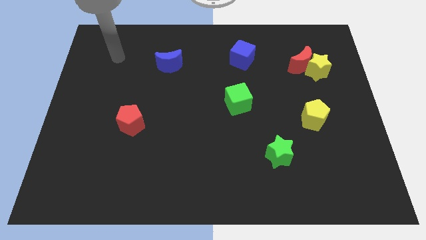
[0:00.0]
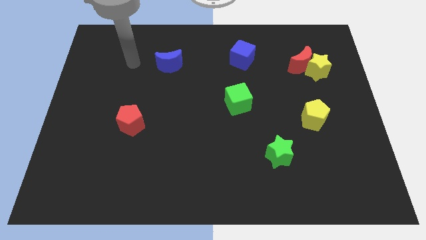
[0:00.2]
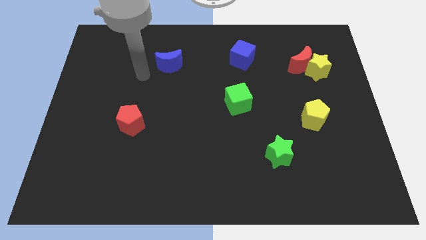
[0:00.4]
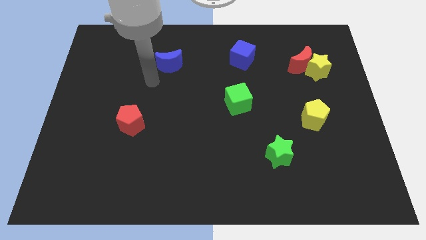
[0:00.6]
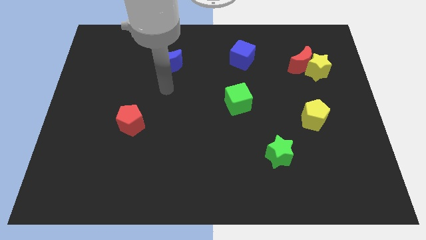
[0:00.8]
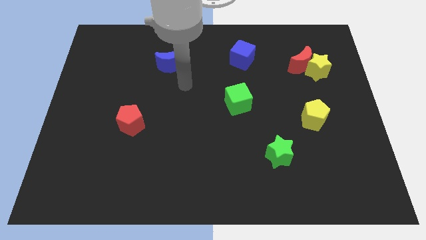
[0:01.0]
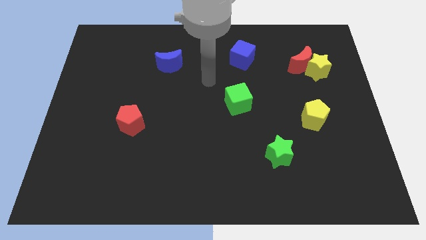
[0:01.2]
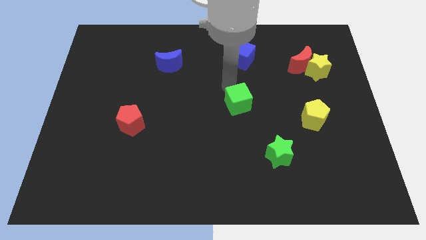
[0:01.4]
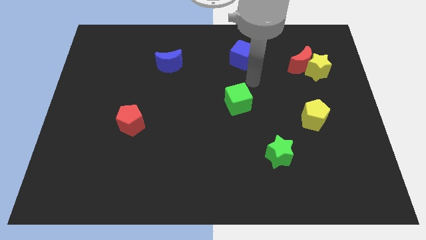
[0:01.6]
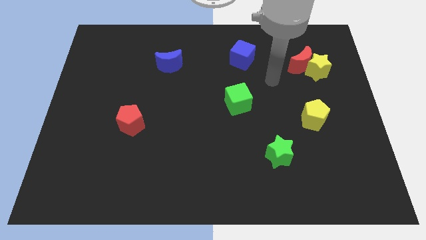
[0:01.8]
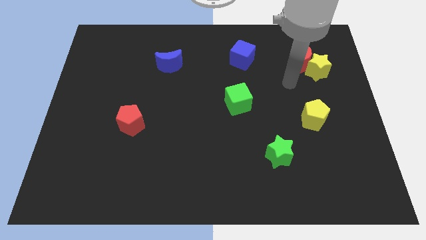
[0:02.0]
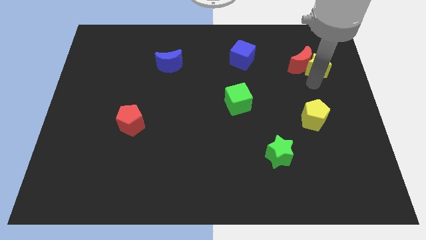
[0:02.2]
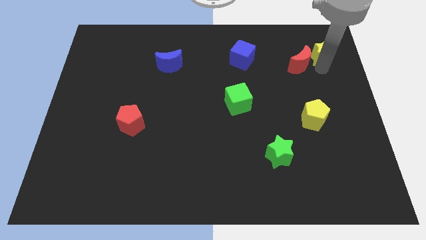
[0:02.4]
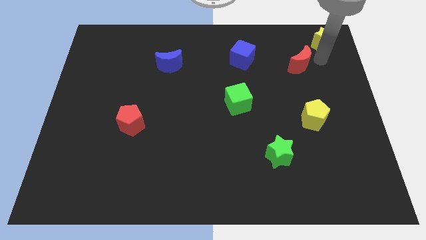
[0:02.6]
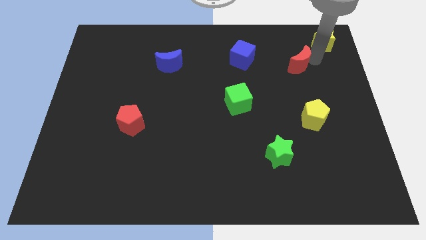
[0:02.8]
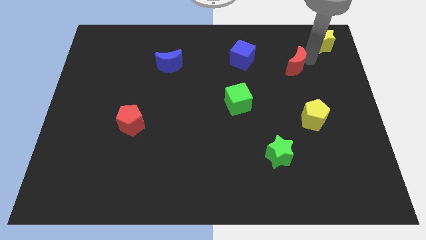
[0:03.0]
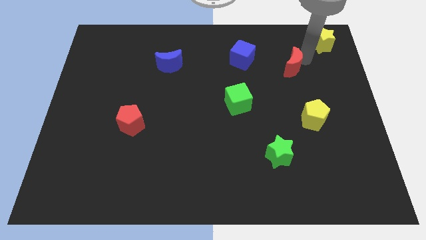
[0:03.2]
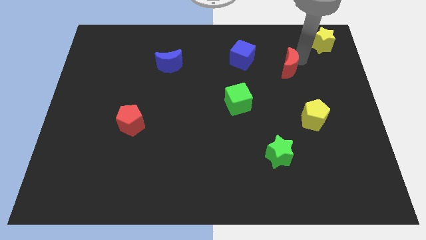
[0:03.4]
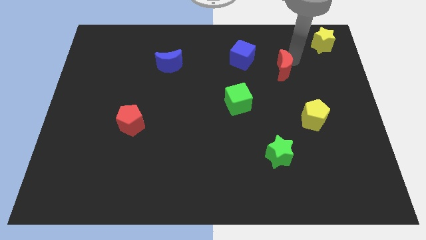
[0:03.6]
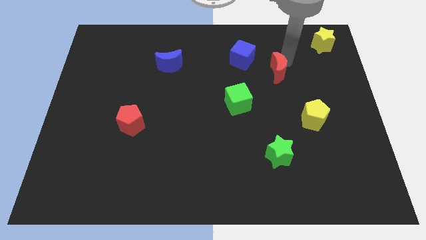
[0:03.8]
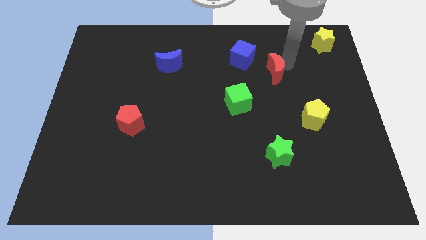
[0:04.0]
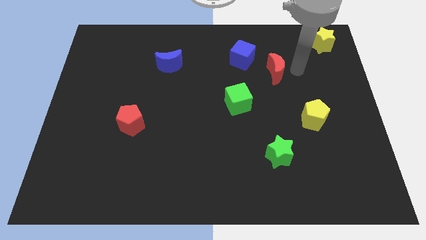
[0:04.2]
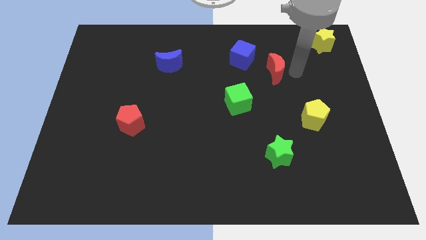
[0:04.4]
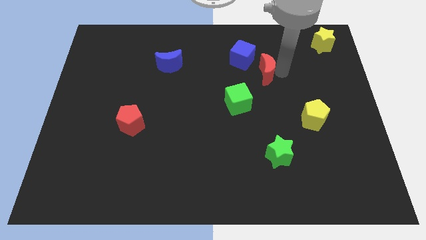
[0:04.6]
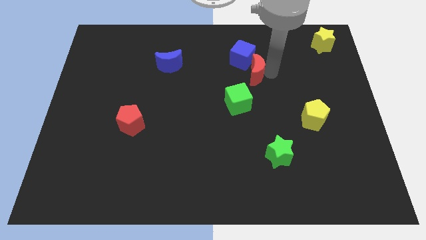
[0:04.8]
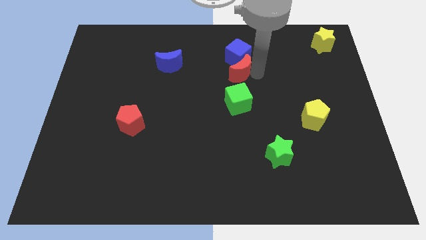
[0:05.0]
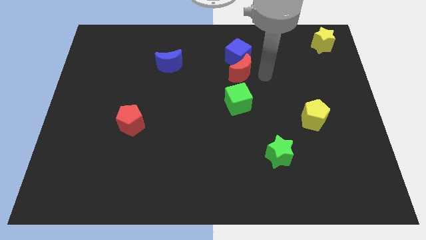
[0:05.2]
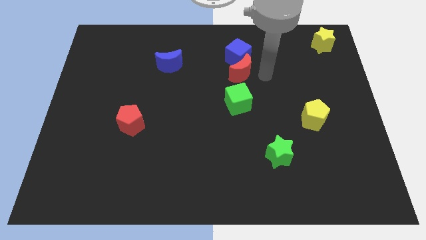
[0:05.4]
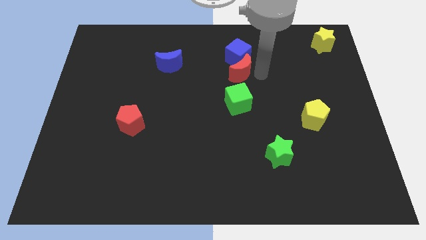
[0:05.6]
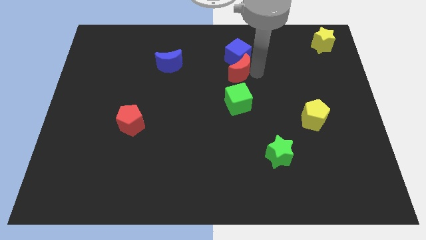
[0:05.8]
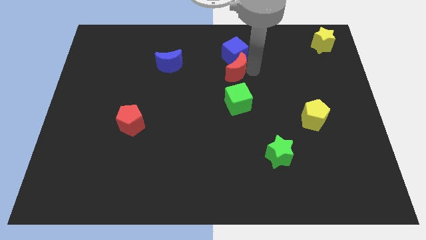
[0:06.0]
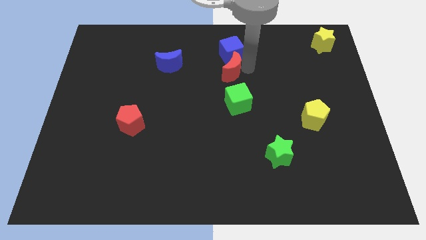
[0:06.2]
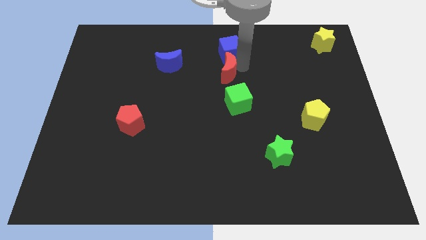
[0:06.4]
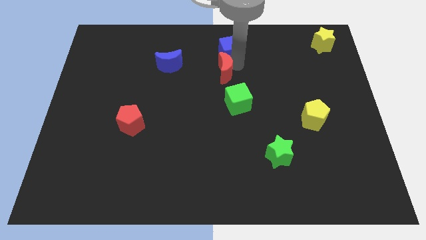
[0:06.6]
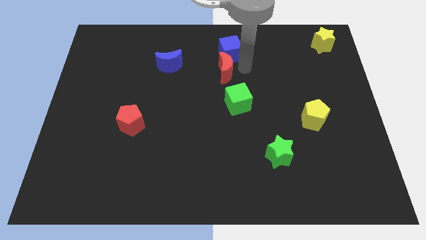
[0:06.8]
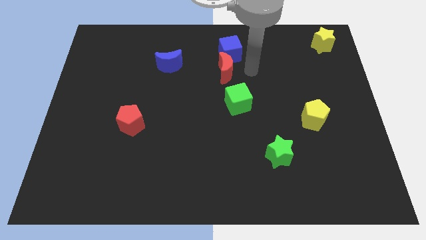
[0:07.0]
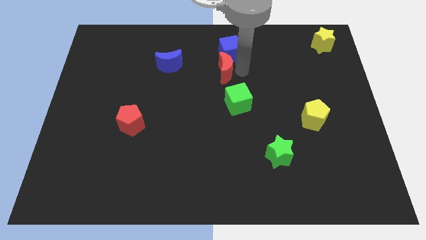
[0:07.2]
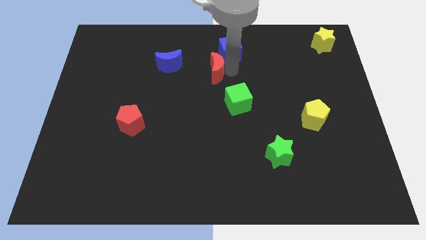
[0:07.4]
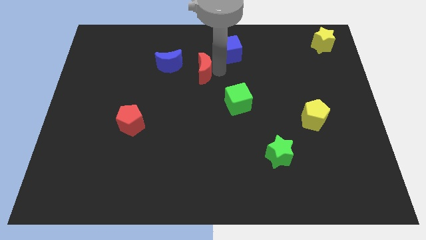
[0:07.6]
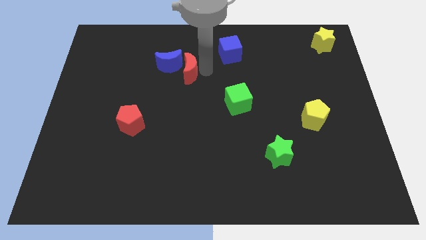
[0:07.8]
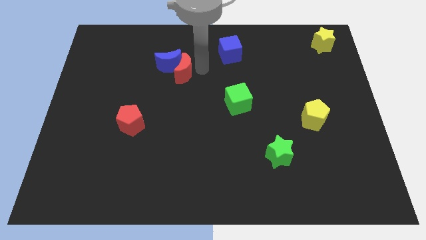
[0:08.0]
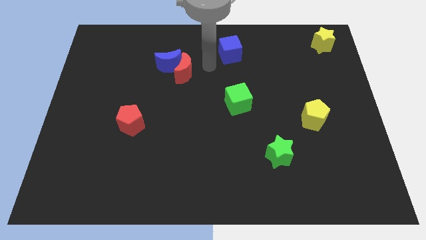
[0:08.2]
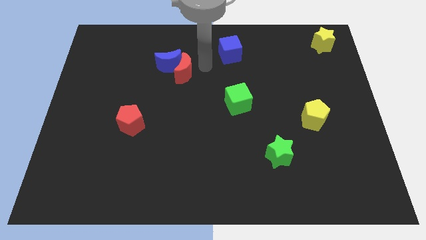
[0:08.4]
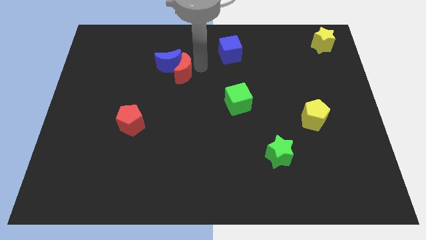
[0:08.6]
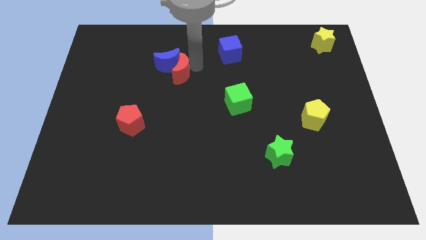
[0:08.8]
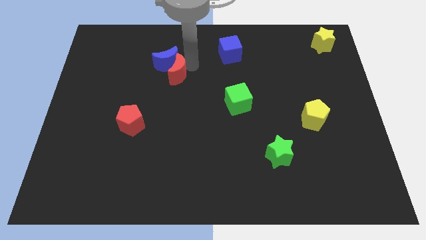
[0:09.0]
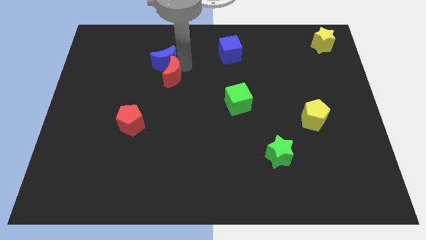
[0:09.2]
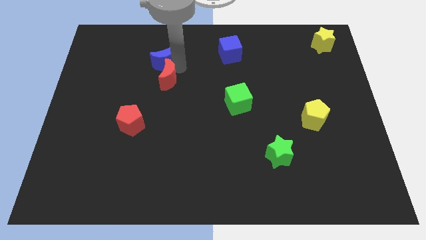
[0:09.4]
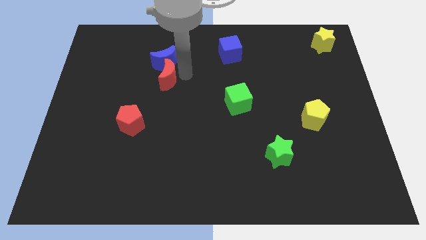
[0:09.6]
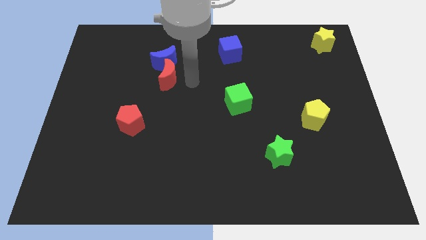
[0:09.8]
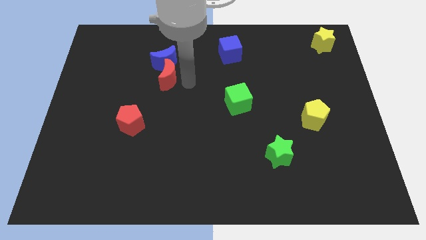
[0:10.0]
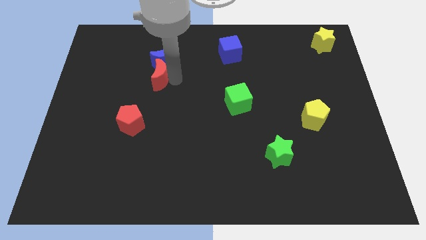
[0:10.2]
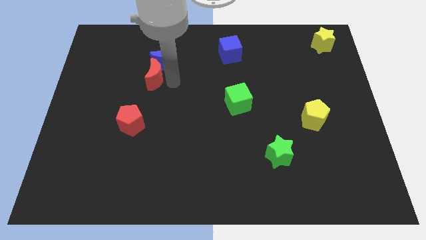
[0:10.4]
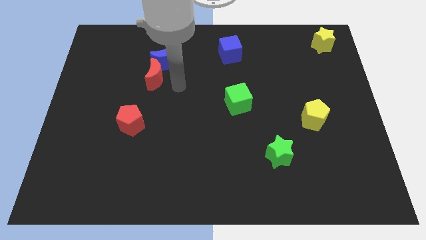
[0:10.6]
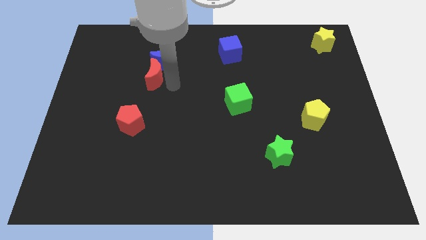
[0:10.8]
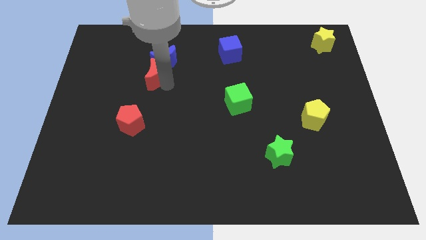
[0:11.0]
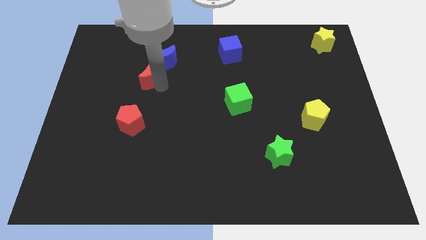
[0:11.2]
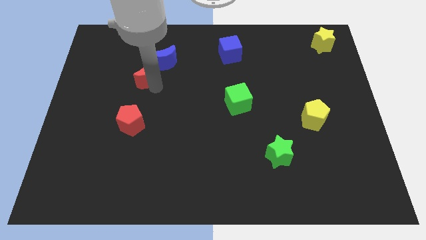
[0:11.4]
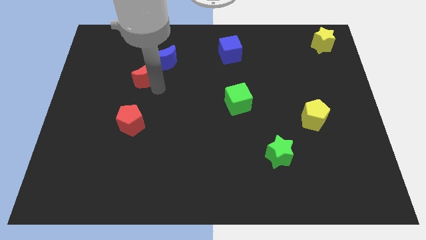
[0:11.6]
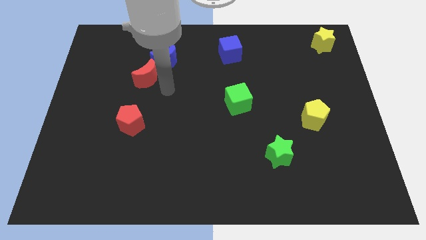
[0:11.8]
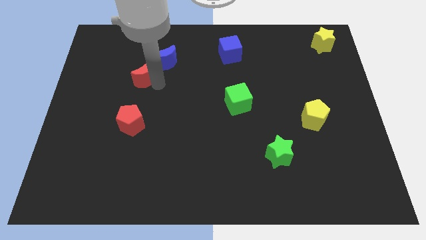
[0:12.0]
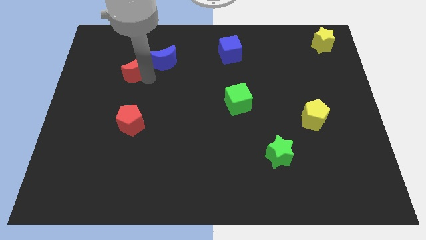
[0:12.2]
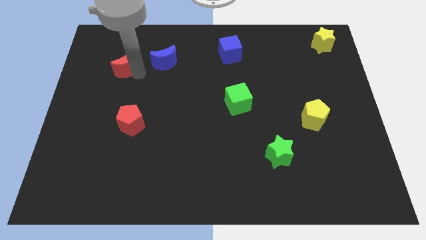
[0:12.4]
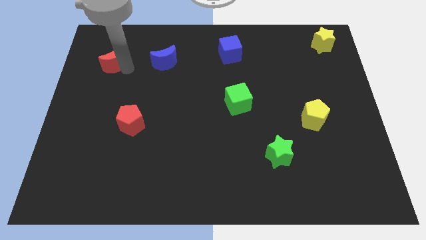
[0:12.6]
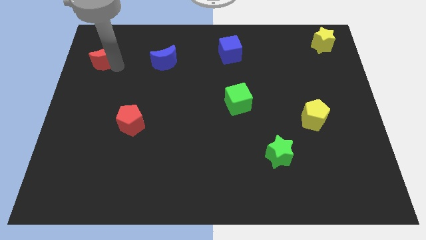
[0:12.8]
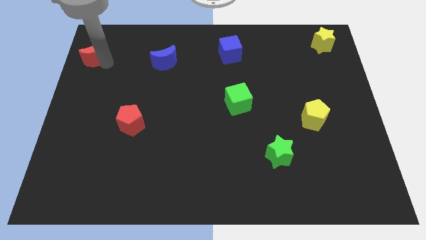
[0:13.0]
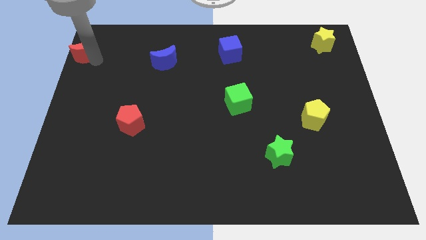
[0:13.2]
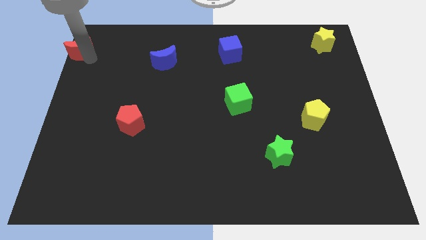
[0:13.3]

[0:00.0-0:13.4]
slide the red moon to the upper left corner
